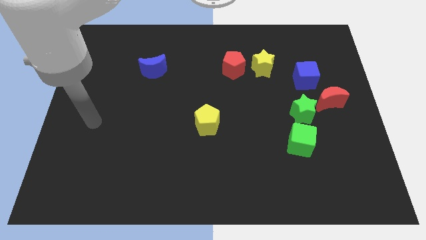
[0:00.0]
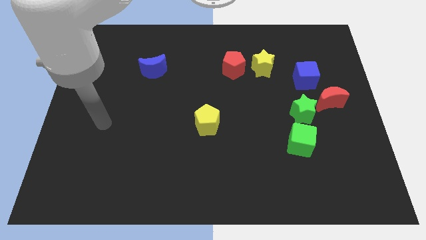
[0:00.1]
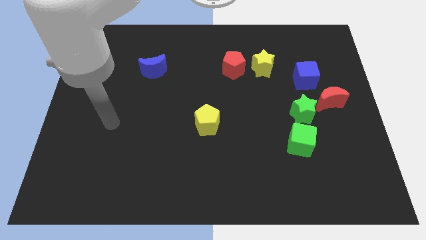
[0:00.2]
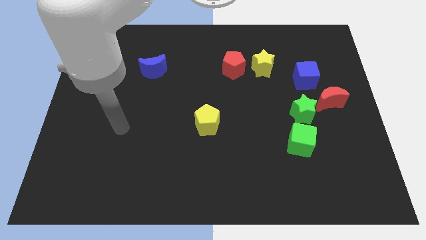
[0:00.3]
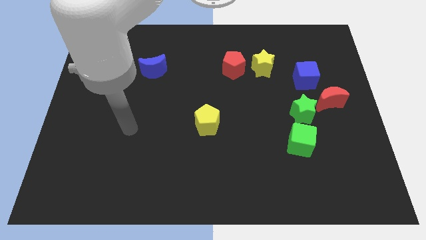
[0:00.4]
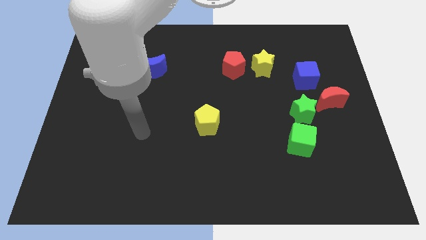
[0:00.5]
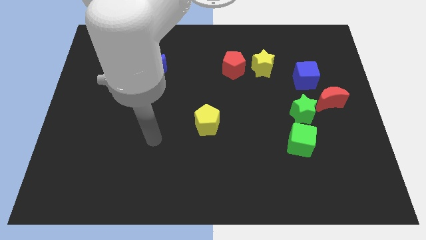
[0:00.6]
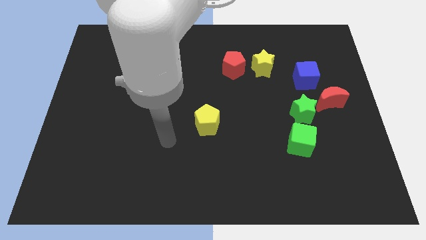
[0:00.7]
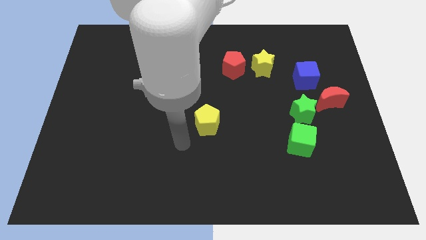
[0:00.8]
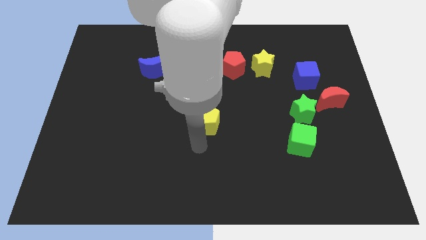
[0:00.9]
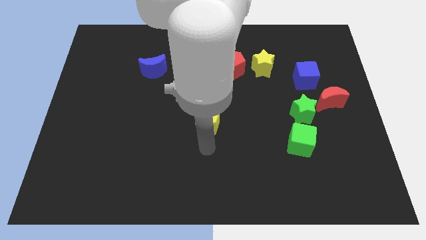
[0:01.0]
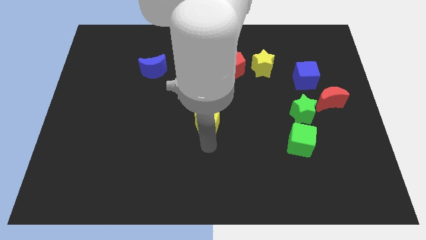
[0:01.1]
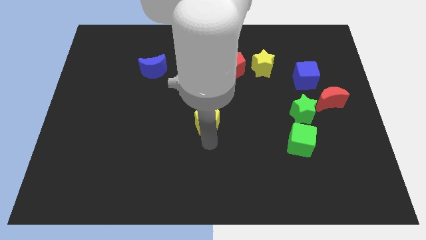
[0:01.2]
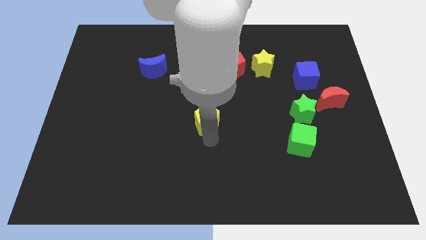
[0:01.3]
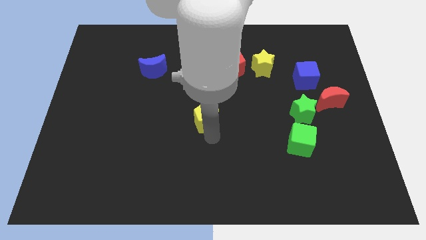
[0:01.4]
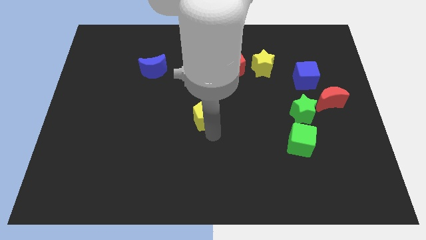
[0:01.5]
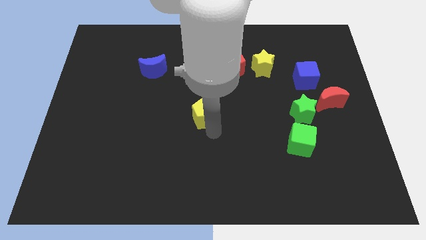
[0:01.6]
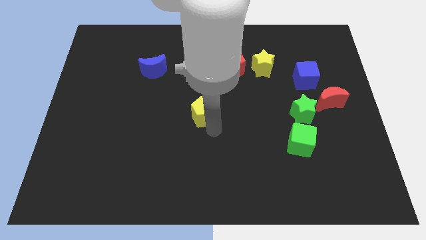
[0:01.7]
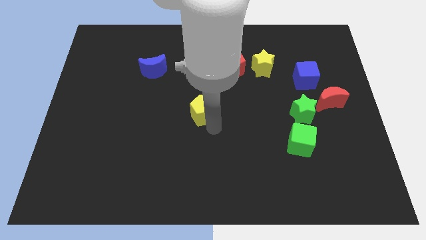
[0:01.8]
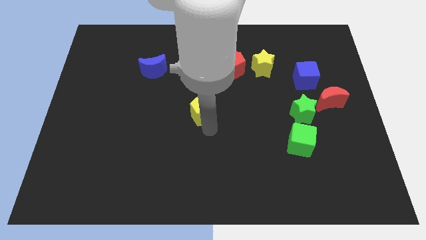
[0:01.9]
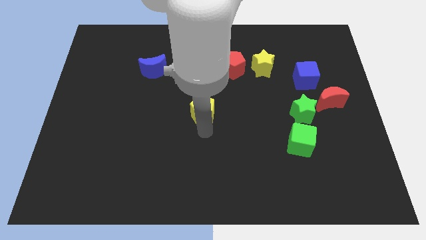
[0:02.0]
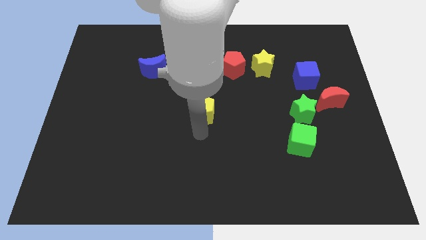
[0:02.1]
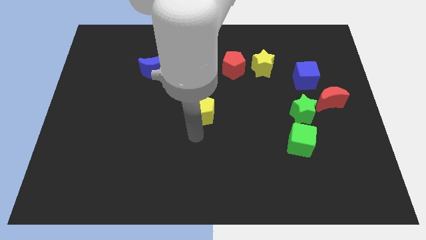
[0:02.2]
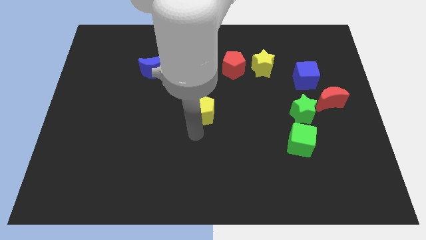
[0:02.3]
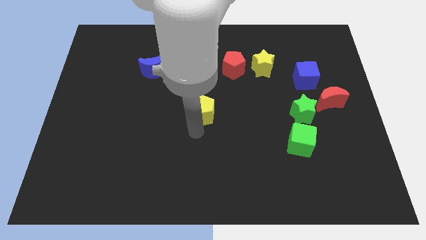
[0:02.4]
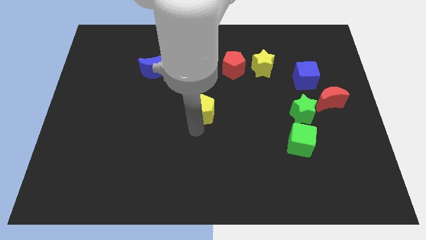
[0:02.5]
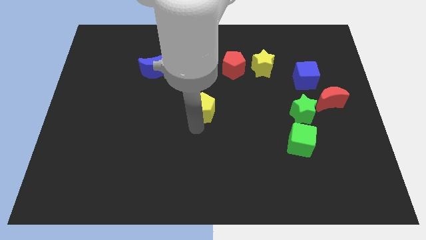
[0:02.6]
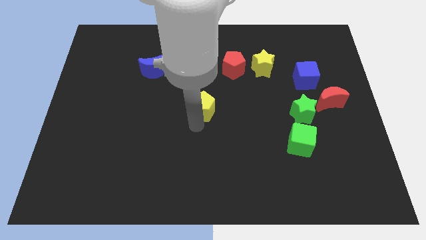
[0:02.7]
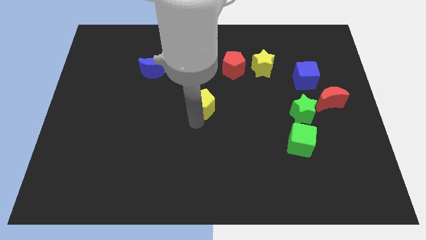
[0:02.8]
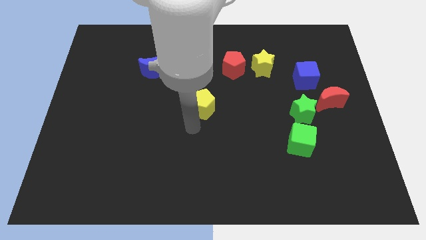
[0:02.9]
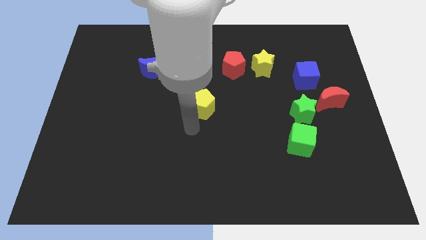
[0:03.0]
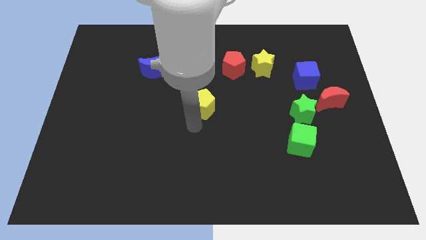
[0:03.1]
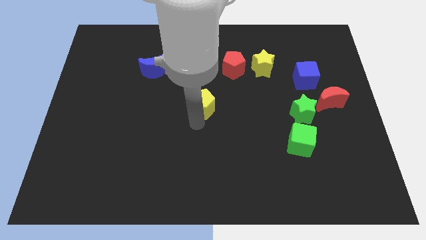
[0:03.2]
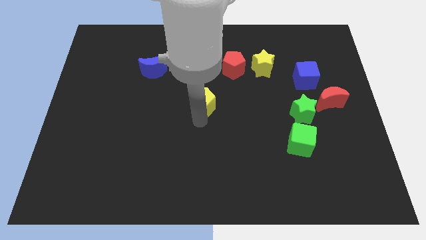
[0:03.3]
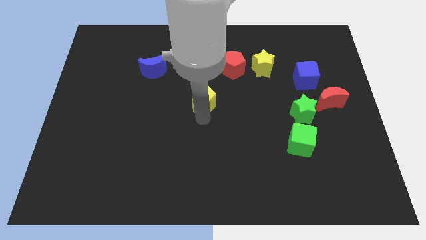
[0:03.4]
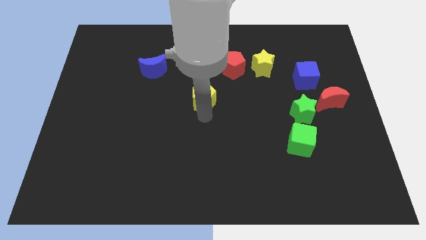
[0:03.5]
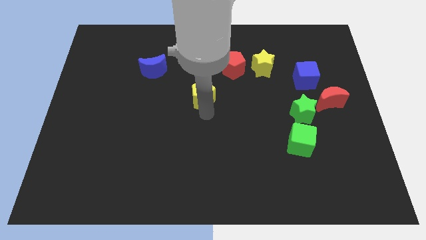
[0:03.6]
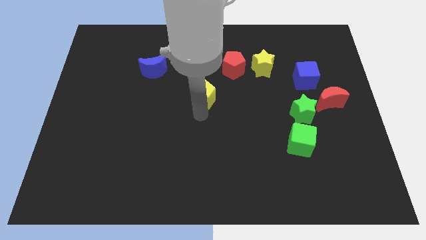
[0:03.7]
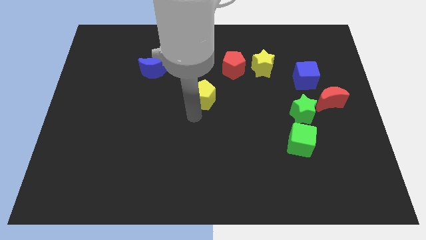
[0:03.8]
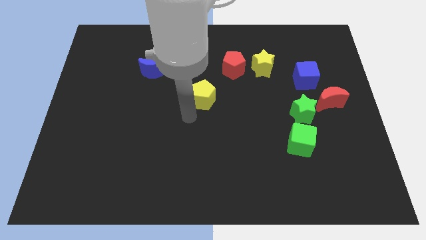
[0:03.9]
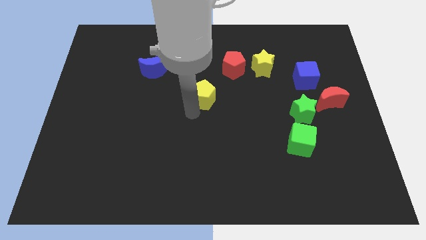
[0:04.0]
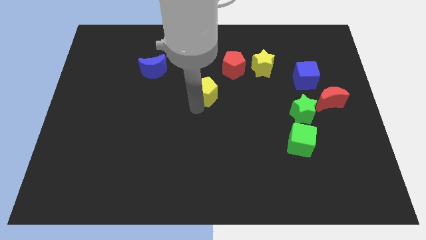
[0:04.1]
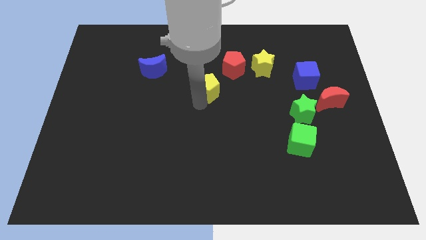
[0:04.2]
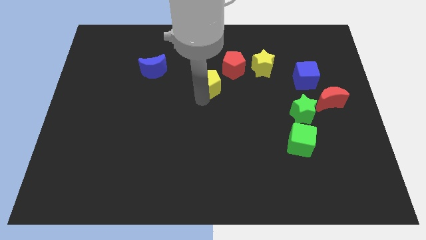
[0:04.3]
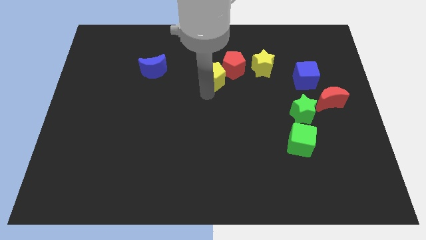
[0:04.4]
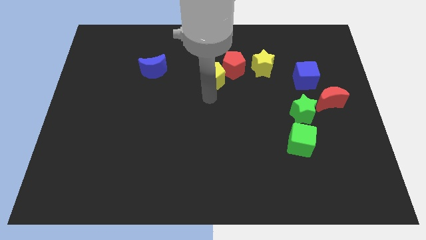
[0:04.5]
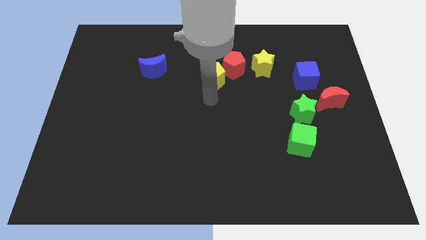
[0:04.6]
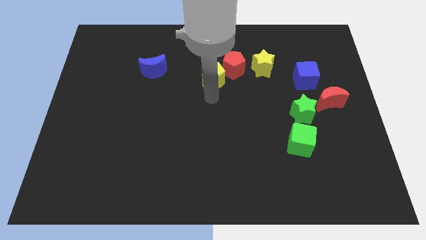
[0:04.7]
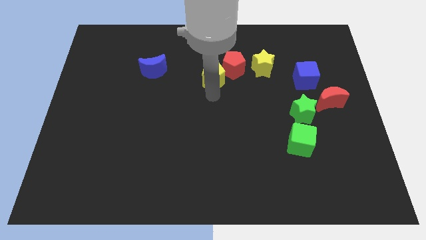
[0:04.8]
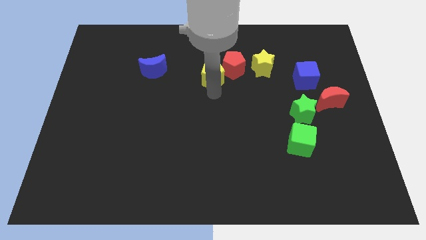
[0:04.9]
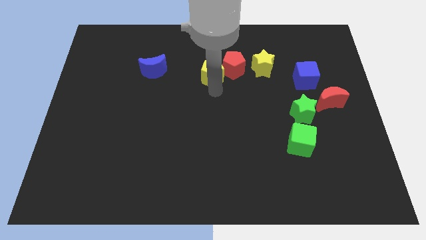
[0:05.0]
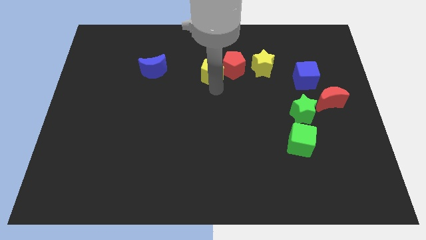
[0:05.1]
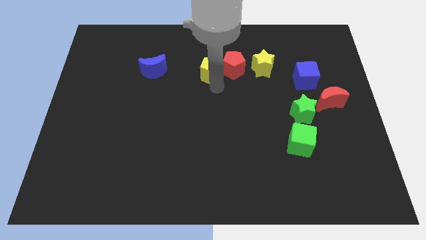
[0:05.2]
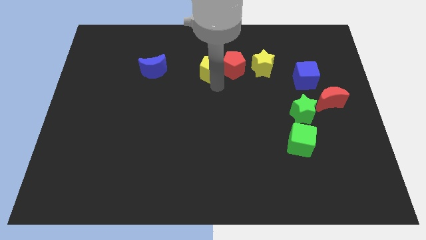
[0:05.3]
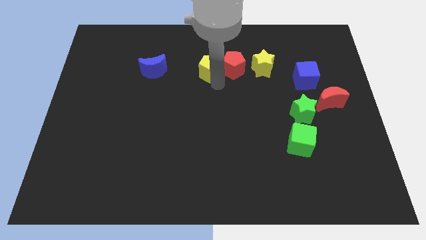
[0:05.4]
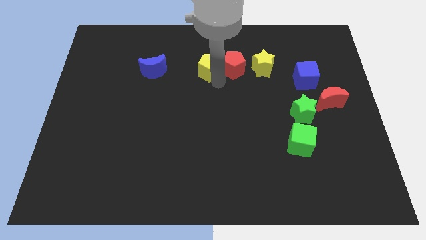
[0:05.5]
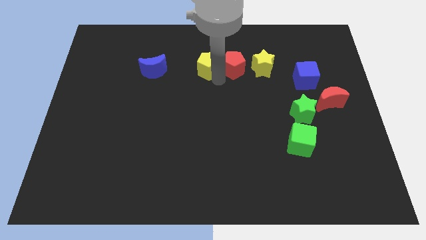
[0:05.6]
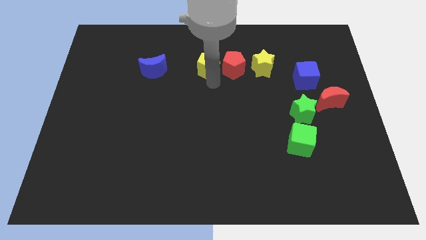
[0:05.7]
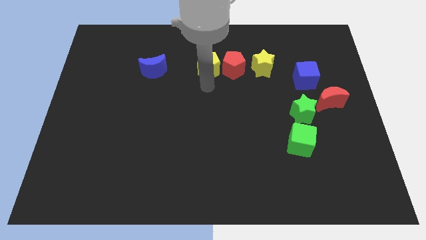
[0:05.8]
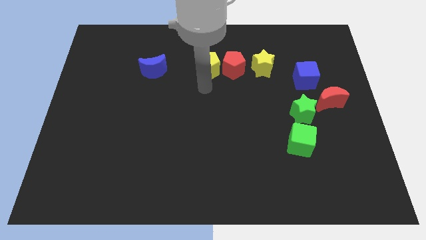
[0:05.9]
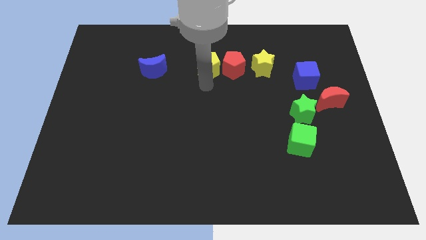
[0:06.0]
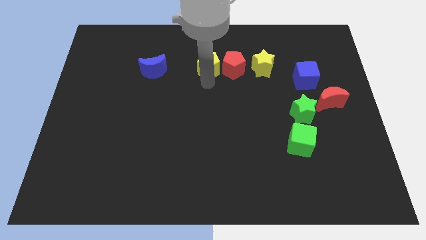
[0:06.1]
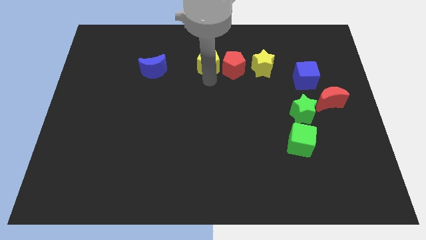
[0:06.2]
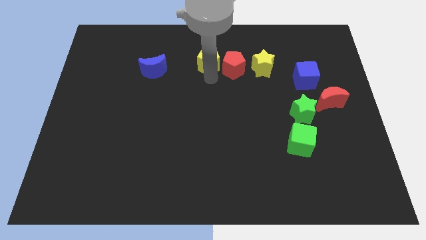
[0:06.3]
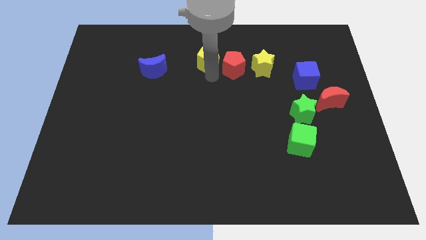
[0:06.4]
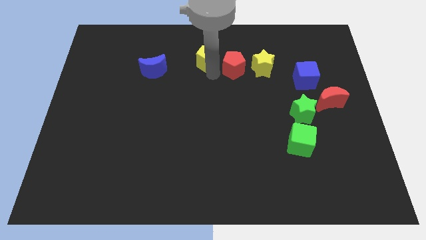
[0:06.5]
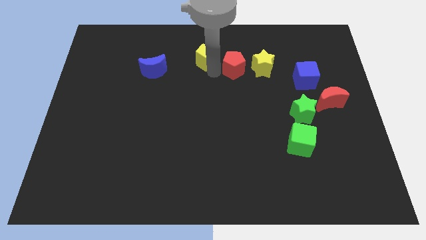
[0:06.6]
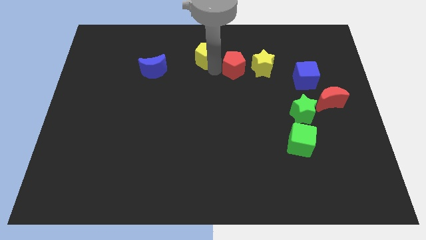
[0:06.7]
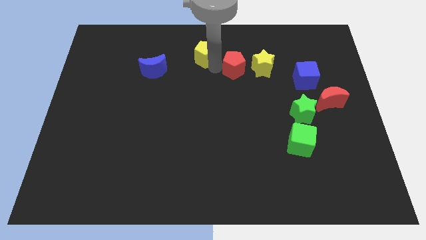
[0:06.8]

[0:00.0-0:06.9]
push the yellow pentagon to the towards your base
